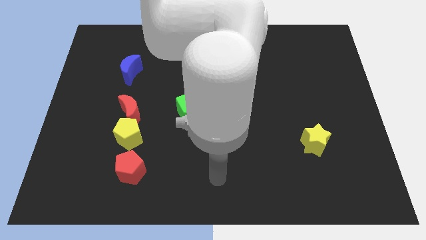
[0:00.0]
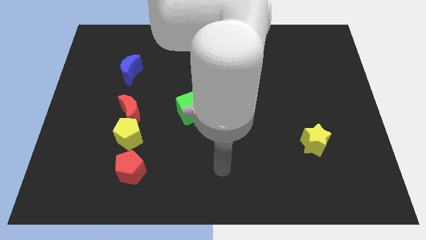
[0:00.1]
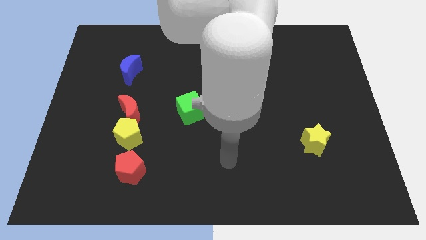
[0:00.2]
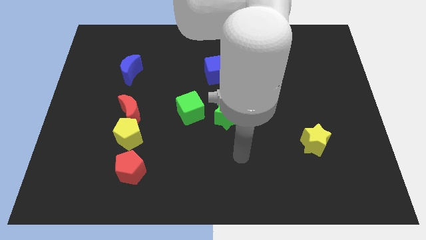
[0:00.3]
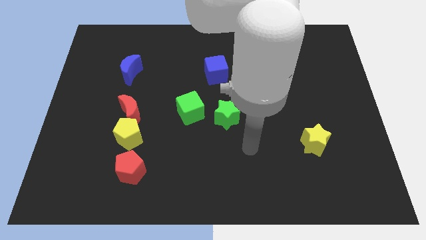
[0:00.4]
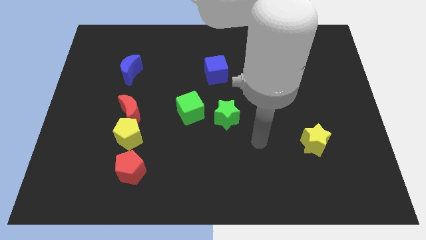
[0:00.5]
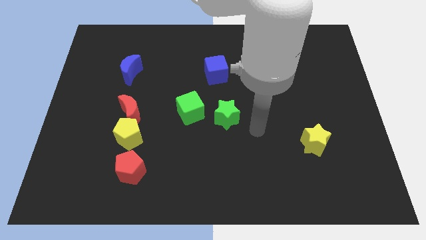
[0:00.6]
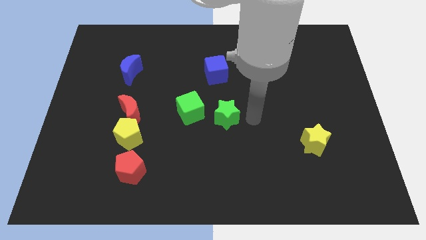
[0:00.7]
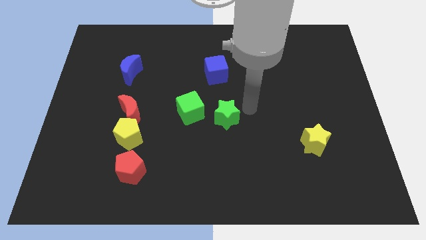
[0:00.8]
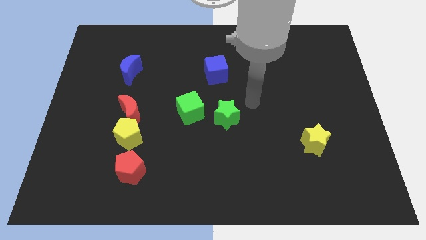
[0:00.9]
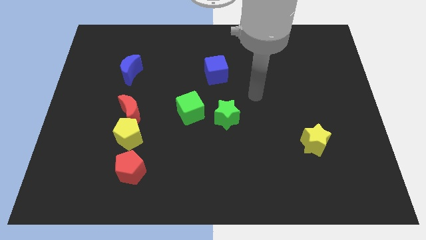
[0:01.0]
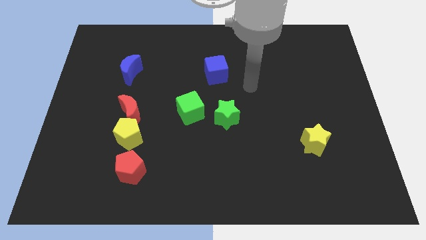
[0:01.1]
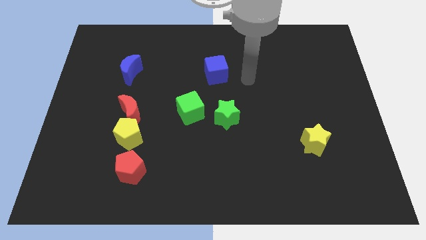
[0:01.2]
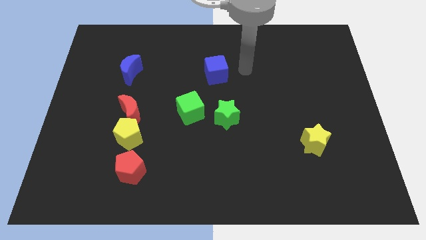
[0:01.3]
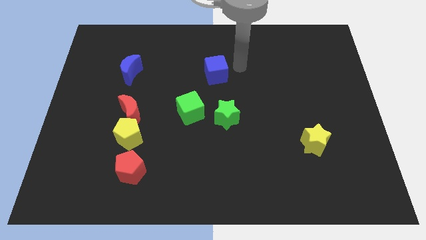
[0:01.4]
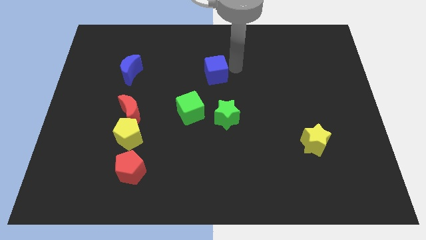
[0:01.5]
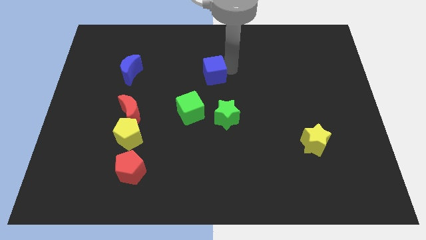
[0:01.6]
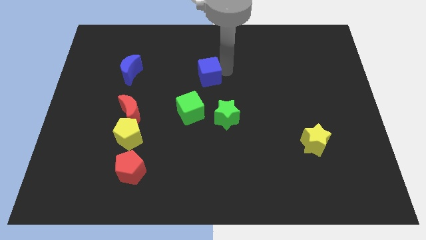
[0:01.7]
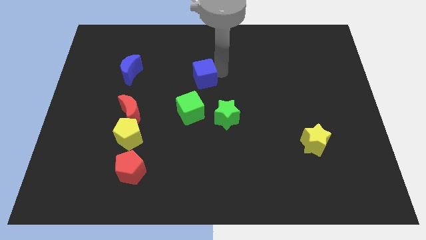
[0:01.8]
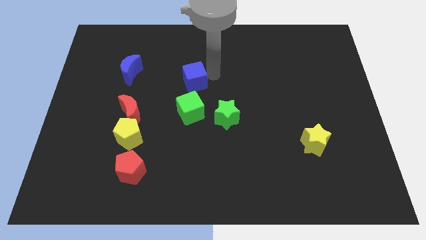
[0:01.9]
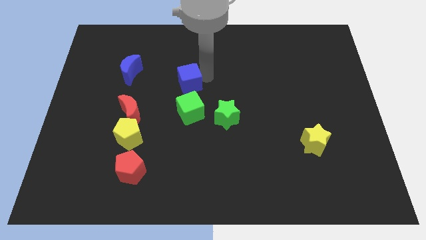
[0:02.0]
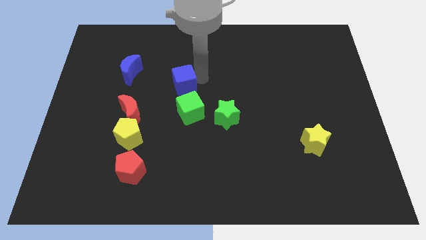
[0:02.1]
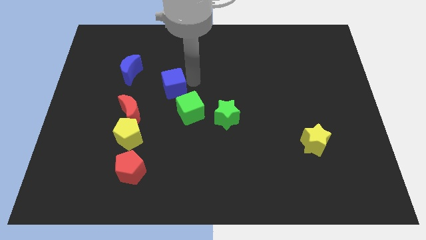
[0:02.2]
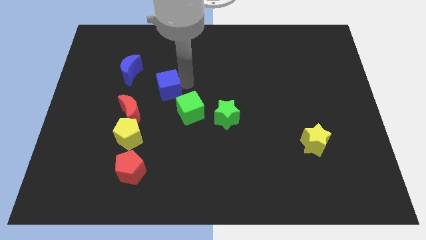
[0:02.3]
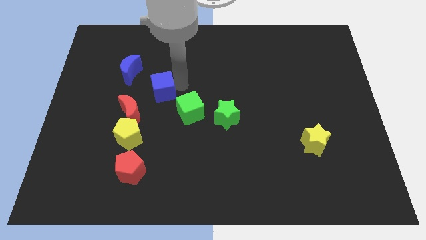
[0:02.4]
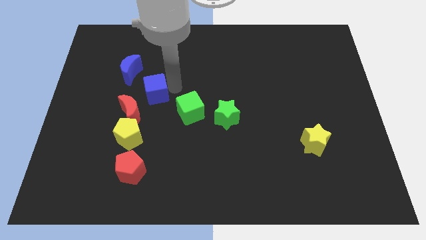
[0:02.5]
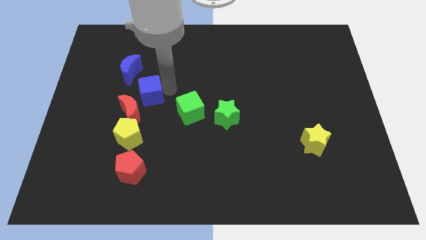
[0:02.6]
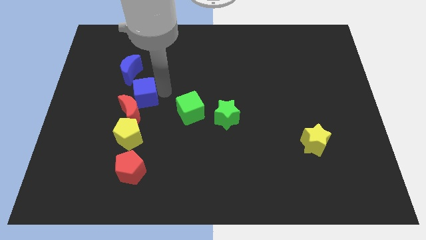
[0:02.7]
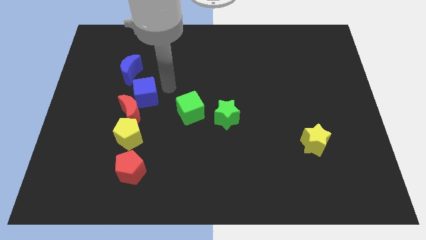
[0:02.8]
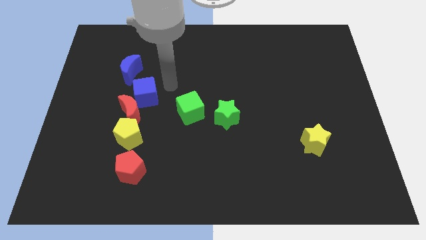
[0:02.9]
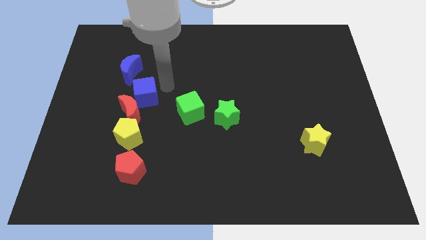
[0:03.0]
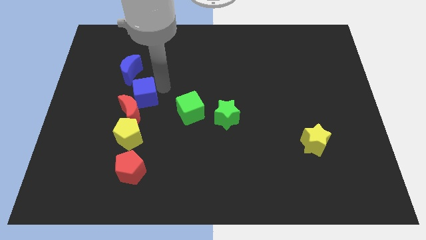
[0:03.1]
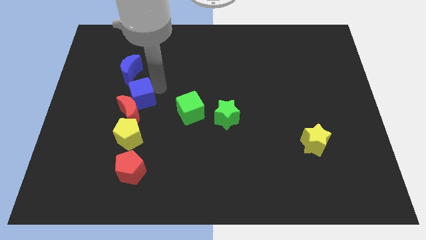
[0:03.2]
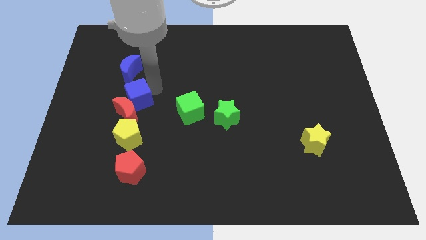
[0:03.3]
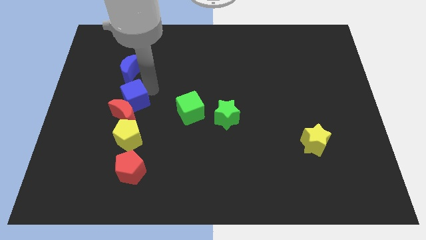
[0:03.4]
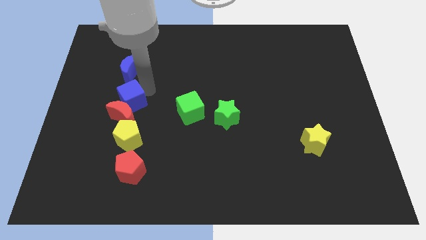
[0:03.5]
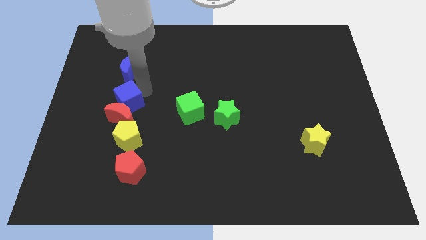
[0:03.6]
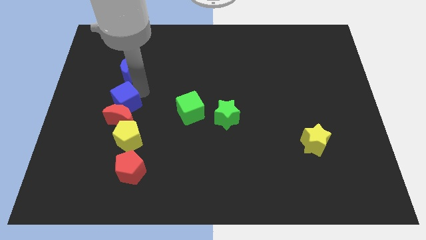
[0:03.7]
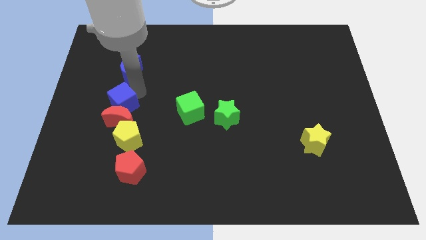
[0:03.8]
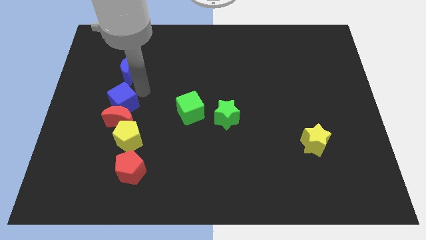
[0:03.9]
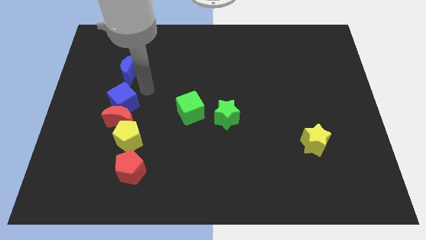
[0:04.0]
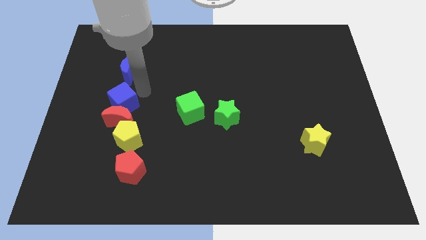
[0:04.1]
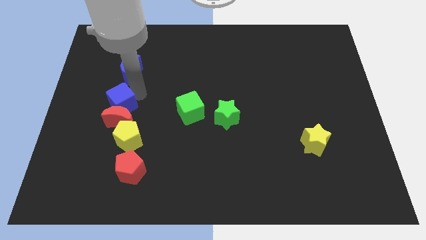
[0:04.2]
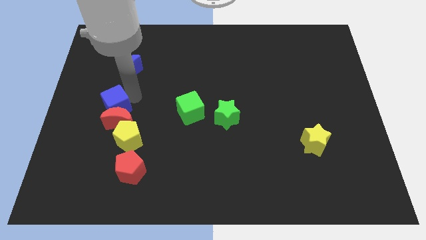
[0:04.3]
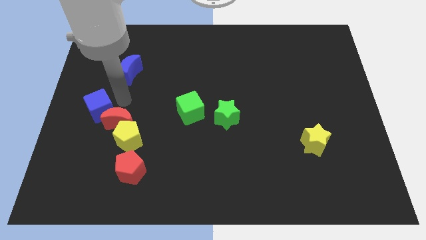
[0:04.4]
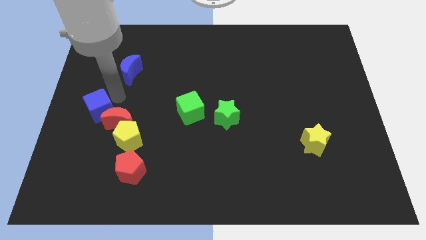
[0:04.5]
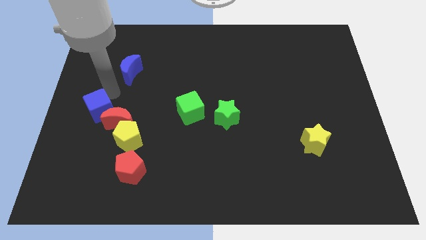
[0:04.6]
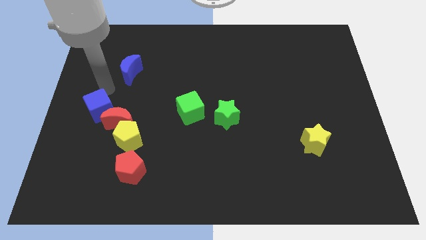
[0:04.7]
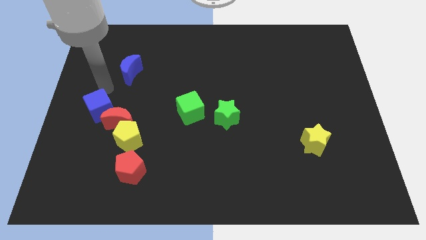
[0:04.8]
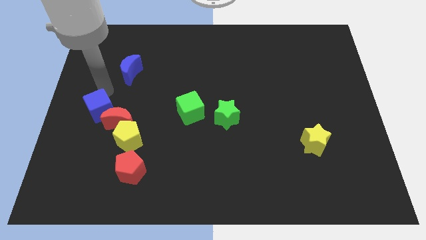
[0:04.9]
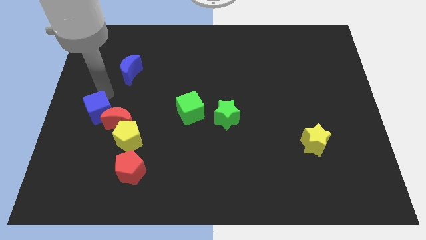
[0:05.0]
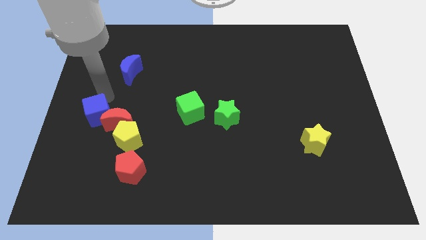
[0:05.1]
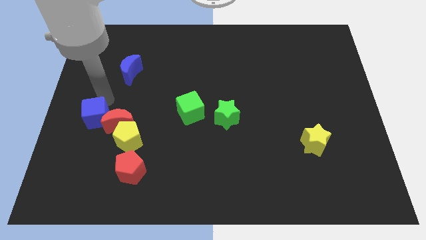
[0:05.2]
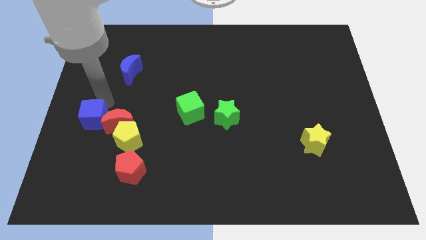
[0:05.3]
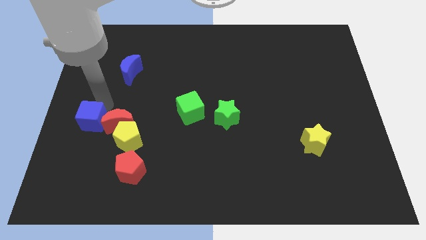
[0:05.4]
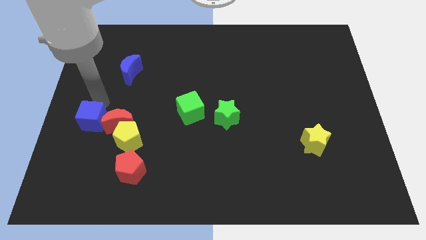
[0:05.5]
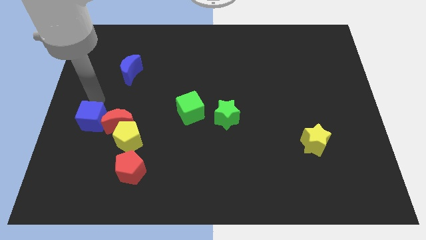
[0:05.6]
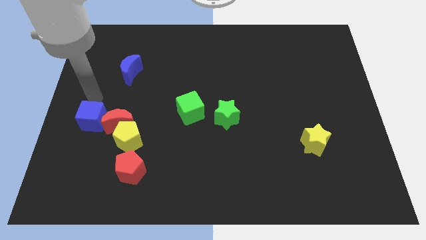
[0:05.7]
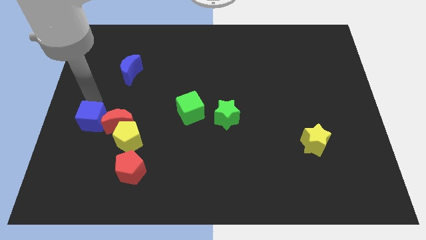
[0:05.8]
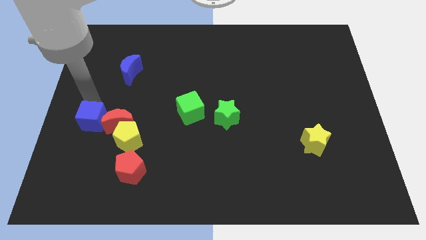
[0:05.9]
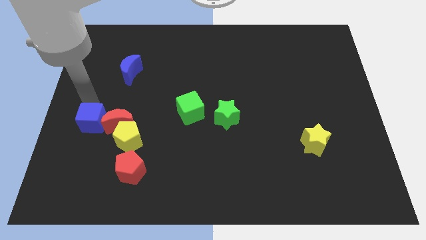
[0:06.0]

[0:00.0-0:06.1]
move the blue cube to the bottom left of the red moon

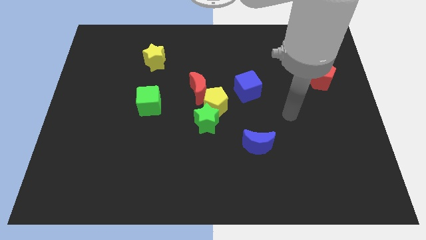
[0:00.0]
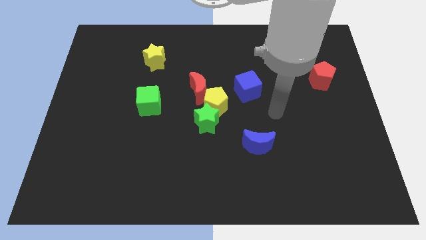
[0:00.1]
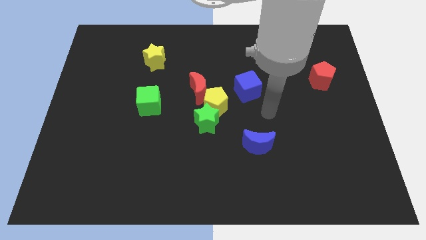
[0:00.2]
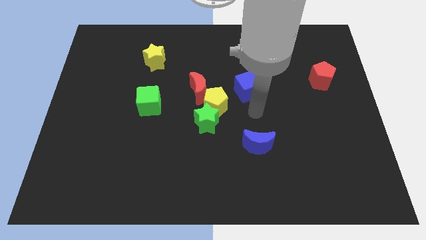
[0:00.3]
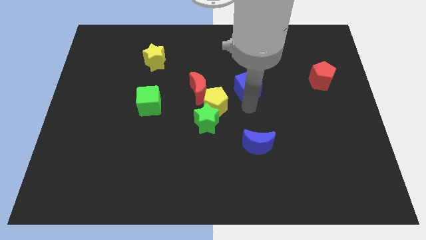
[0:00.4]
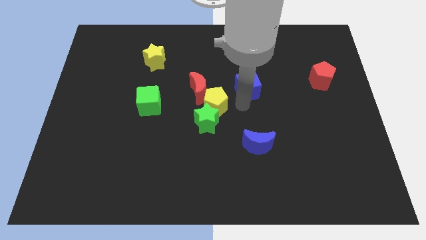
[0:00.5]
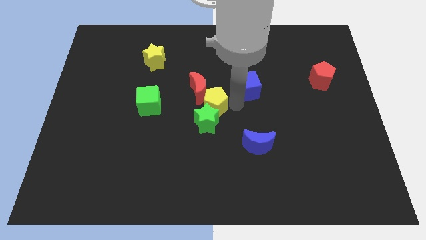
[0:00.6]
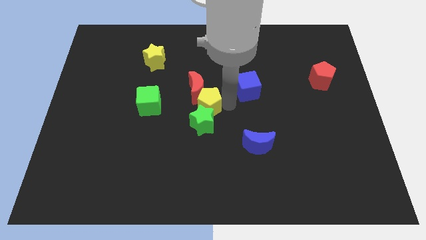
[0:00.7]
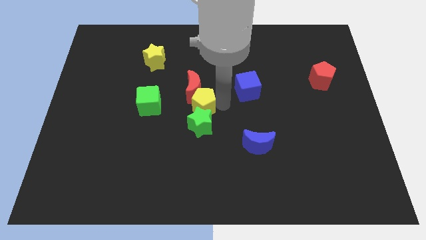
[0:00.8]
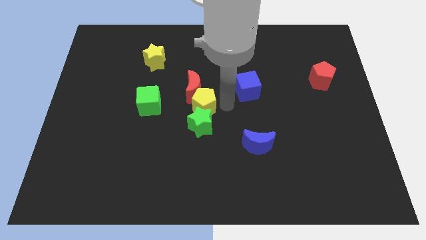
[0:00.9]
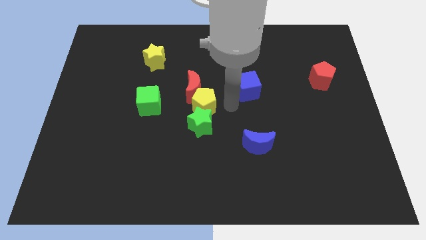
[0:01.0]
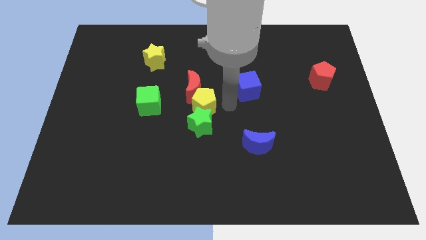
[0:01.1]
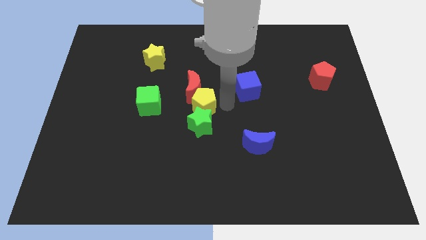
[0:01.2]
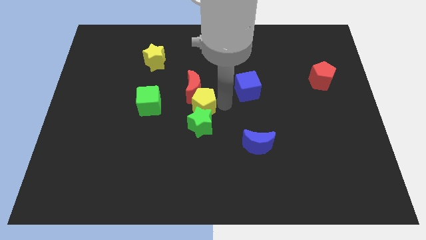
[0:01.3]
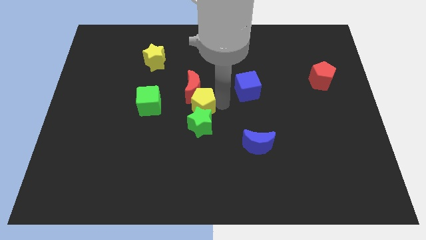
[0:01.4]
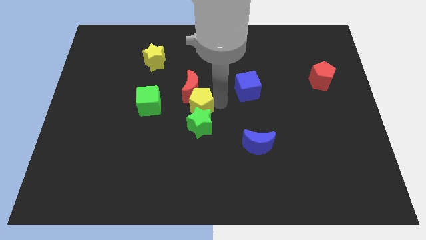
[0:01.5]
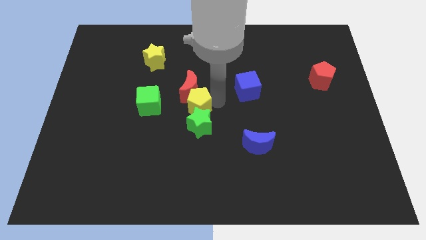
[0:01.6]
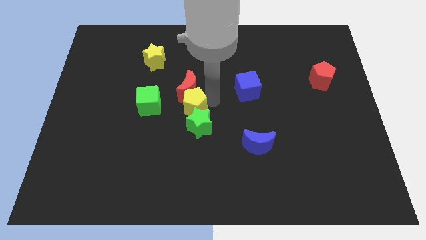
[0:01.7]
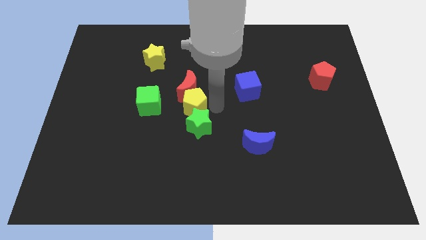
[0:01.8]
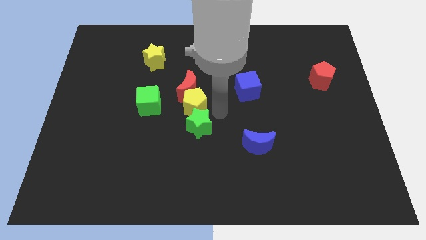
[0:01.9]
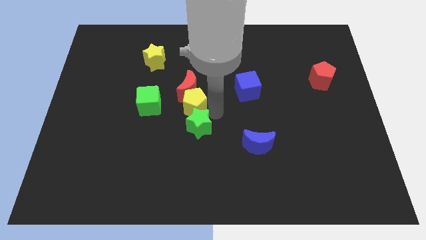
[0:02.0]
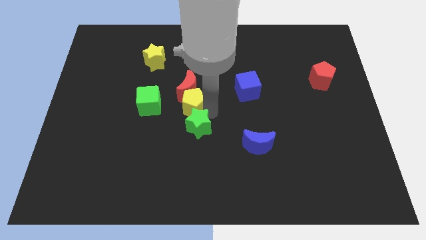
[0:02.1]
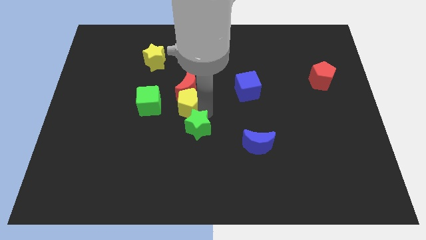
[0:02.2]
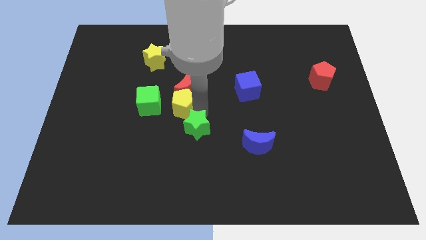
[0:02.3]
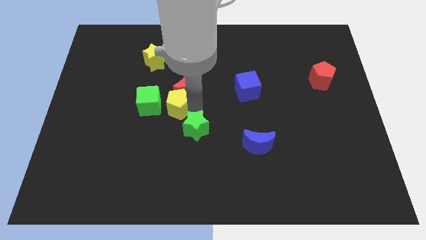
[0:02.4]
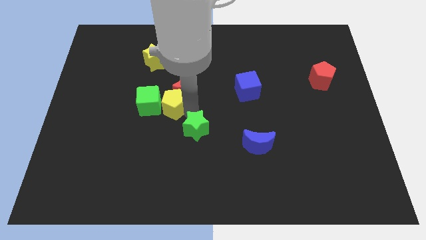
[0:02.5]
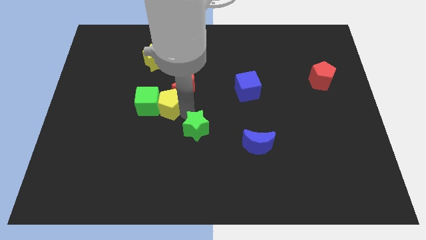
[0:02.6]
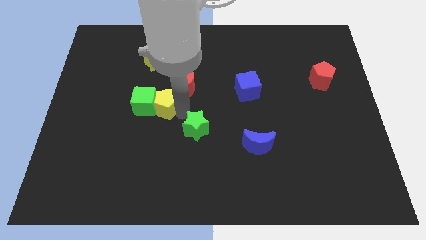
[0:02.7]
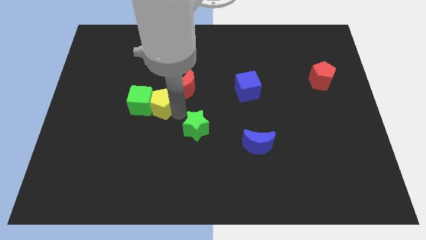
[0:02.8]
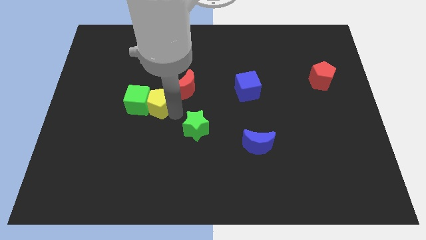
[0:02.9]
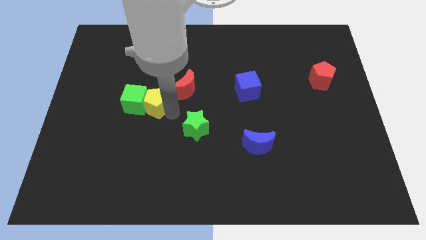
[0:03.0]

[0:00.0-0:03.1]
move the yellow pentagon left of the red moon
